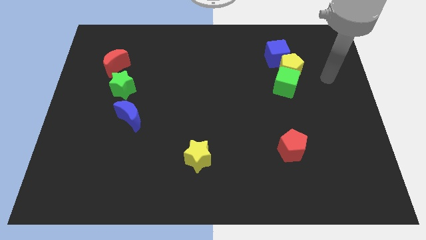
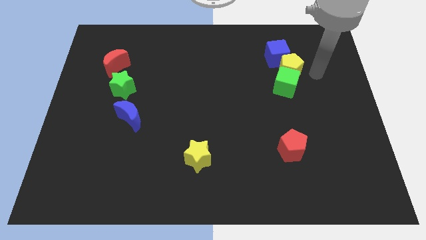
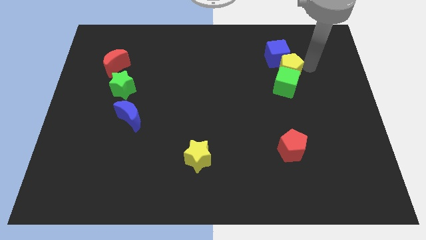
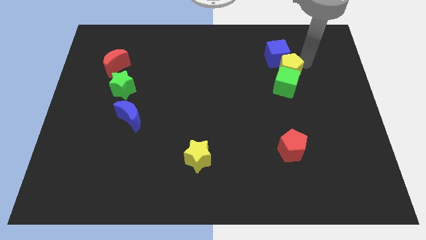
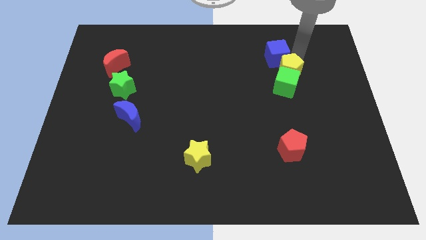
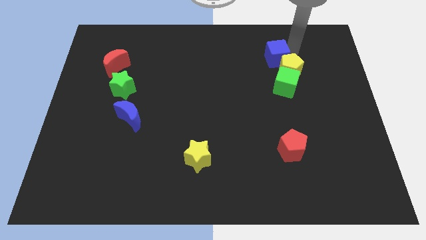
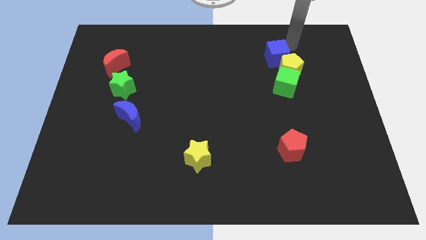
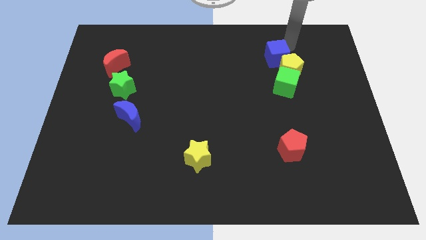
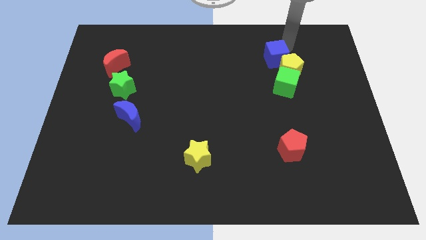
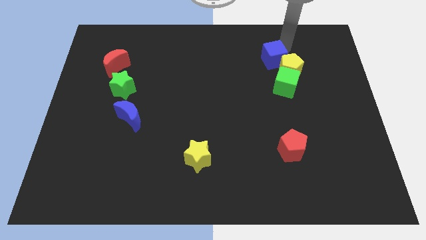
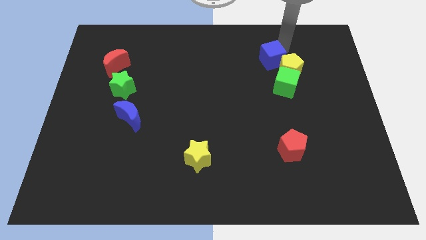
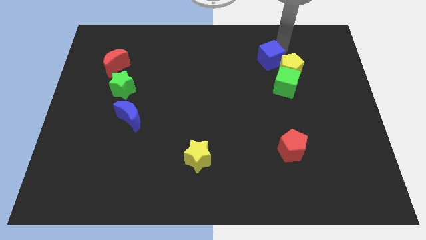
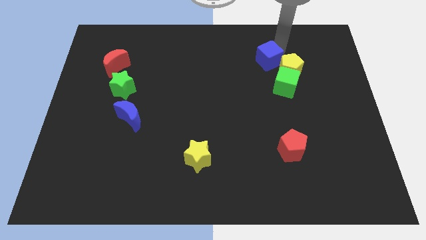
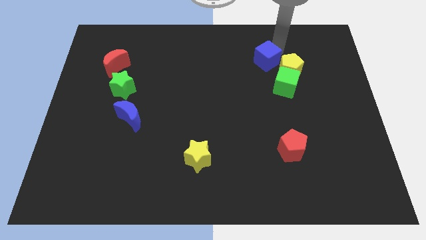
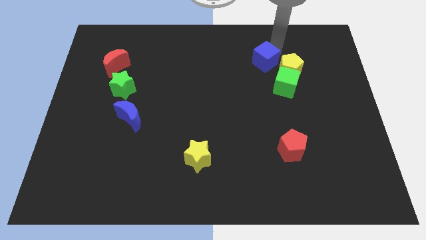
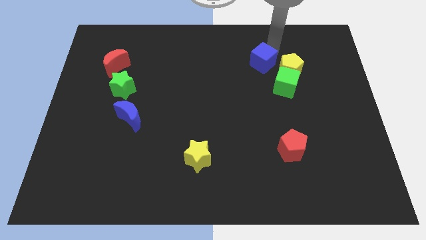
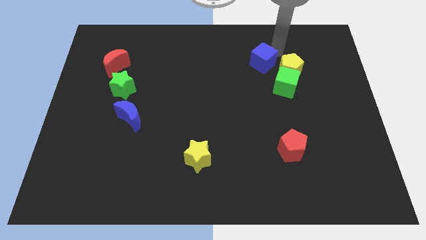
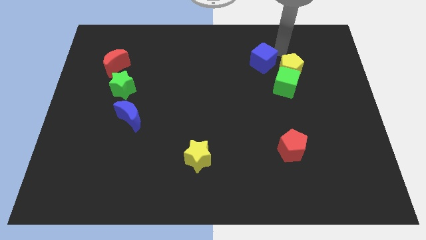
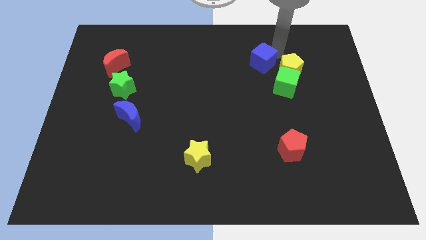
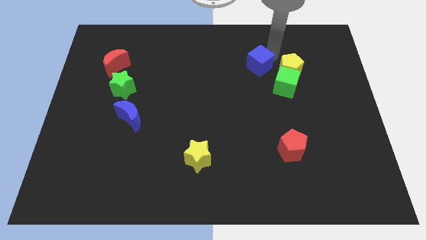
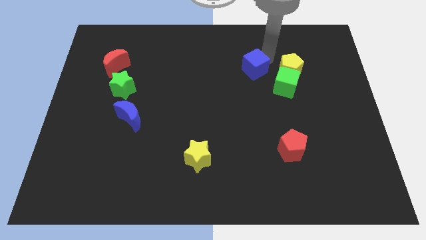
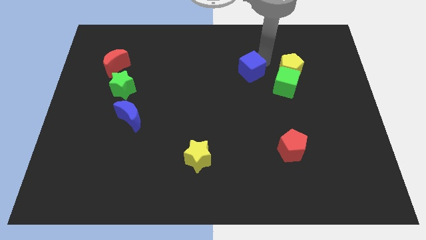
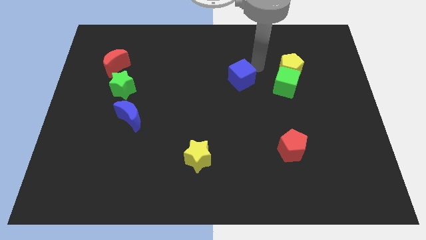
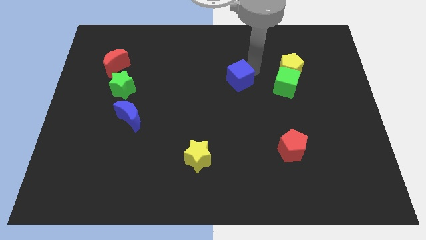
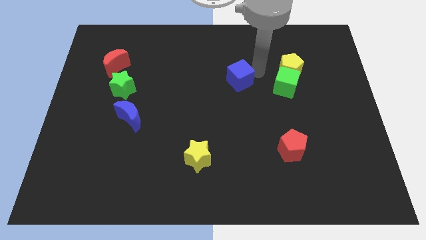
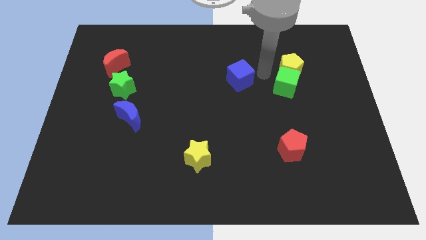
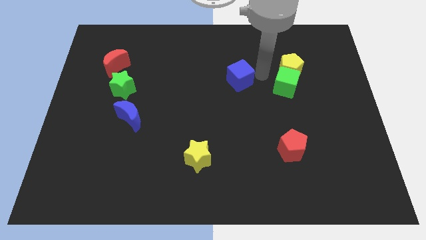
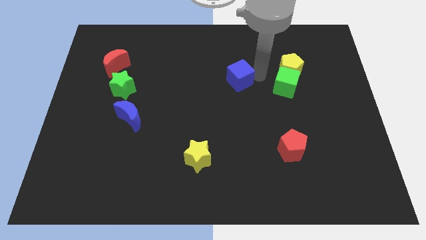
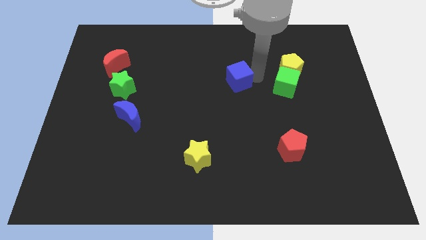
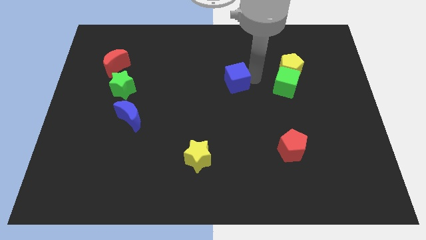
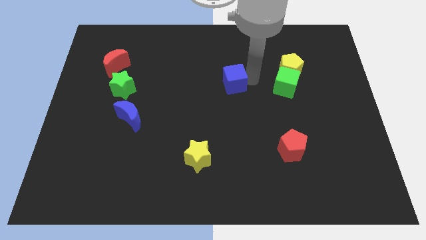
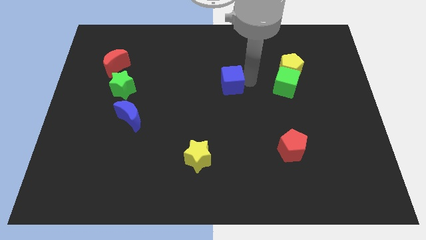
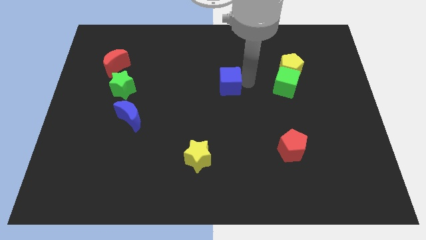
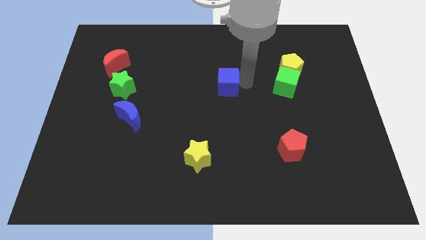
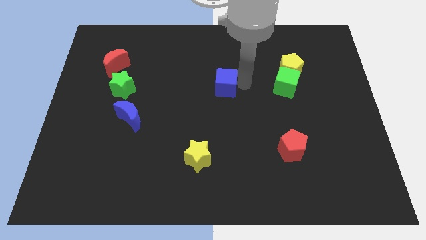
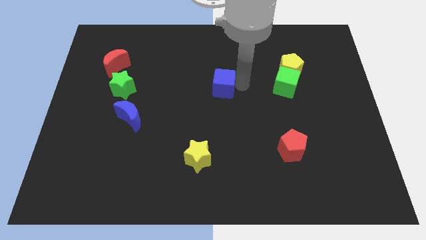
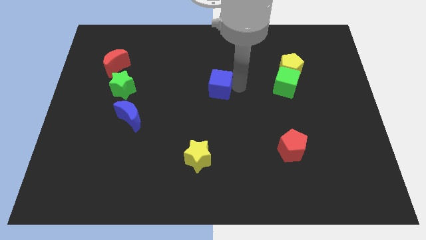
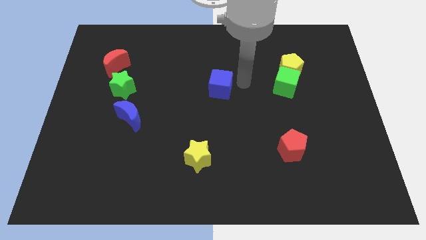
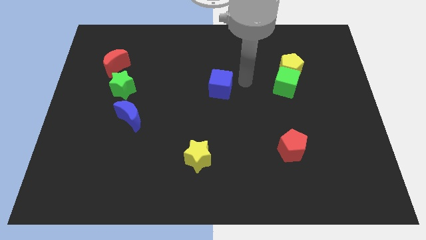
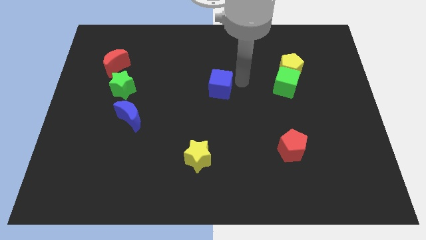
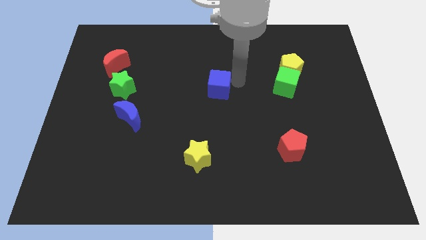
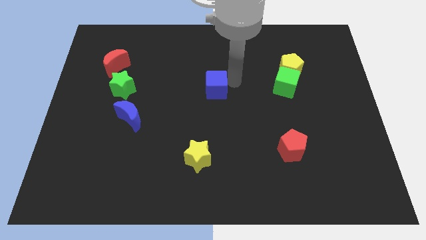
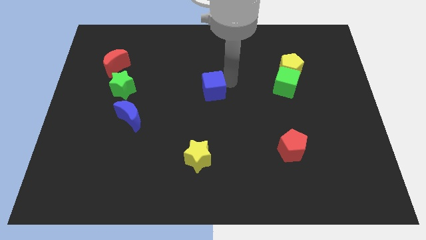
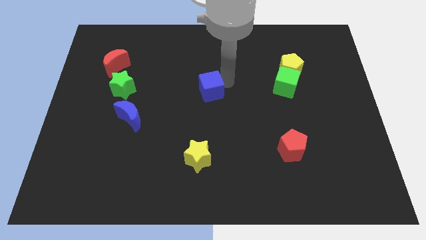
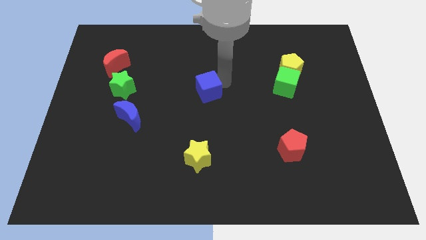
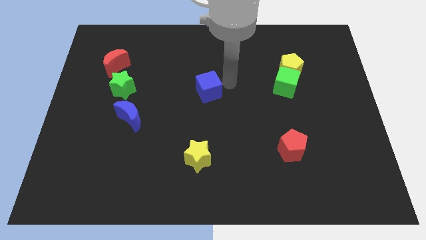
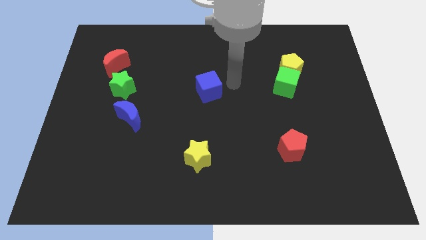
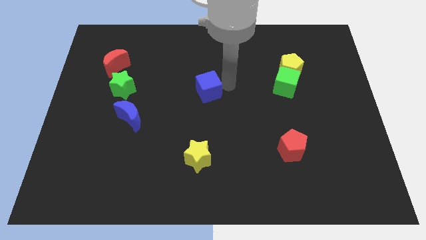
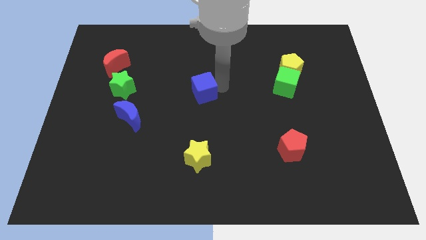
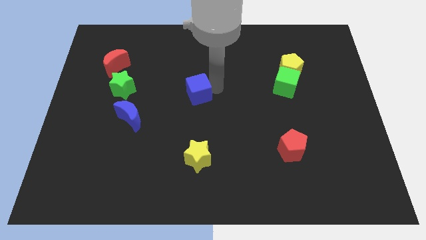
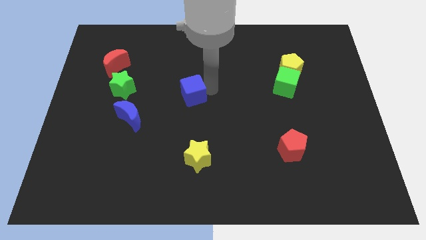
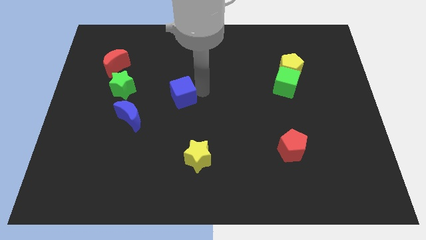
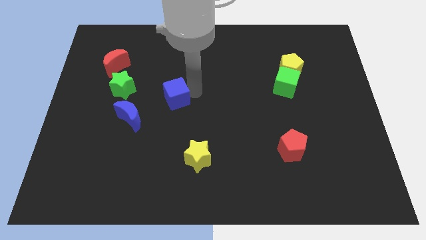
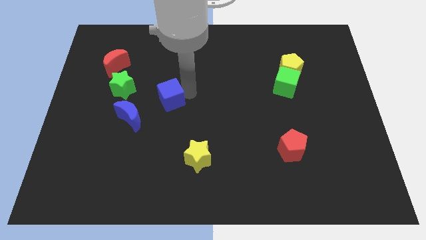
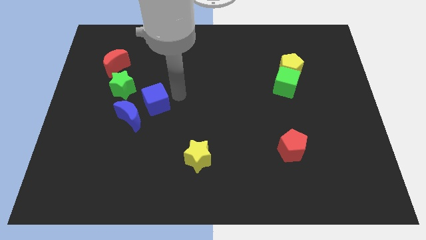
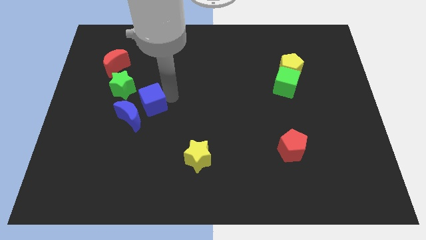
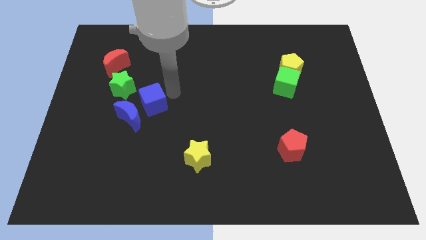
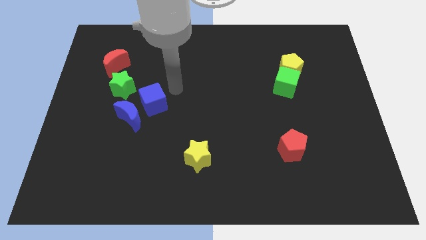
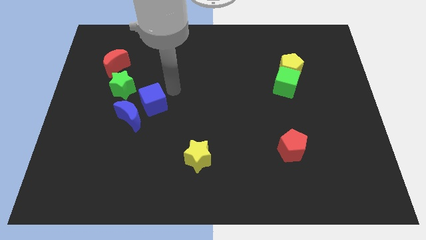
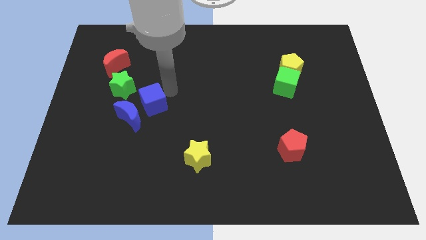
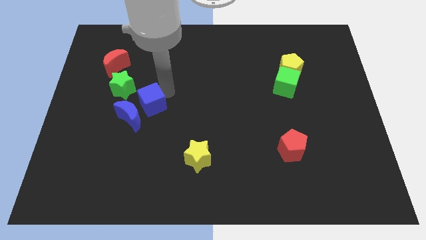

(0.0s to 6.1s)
slide the blue cube to the blue moon
